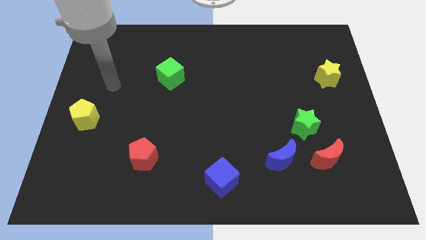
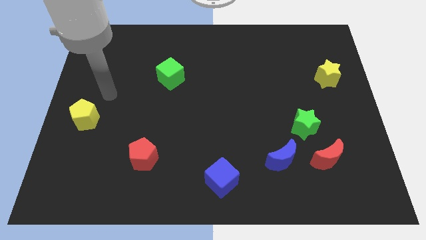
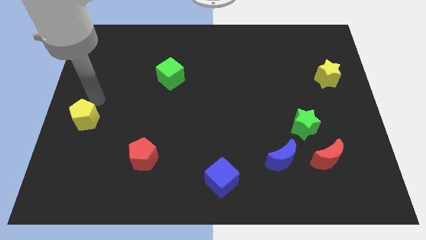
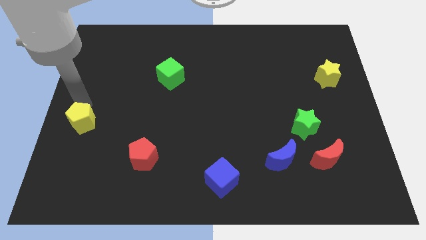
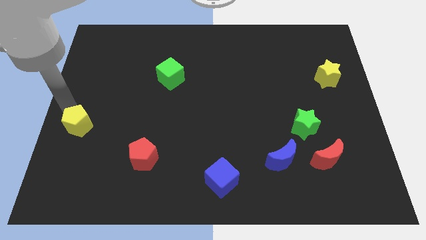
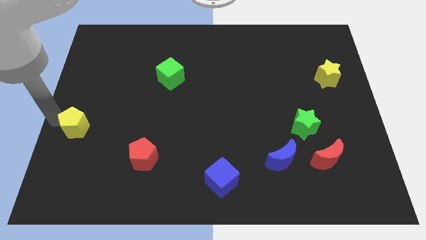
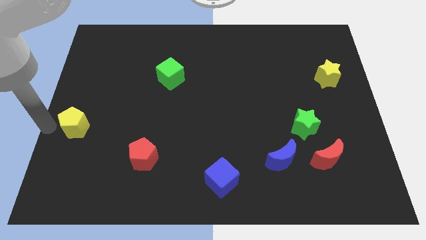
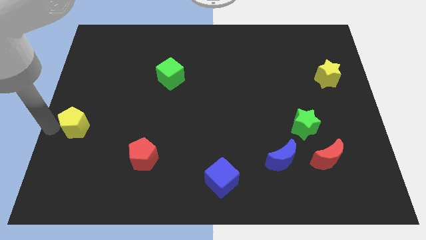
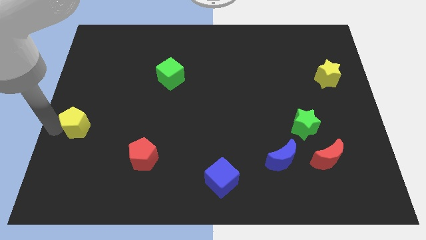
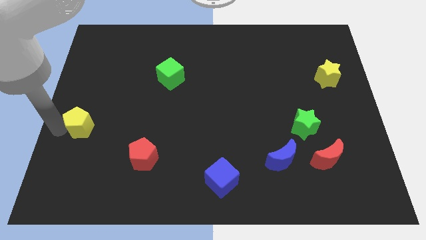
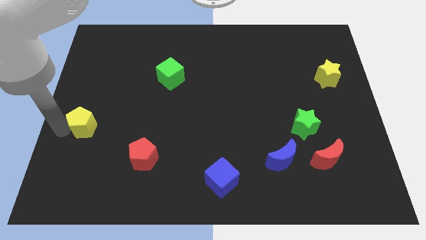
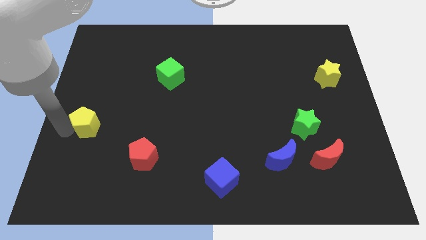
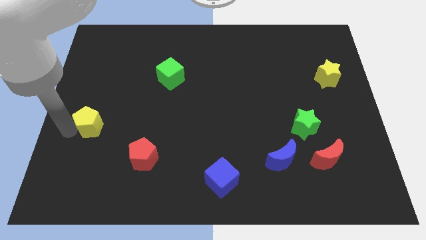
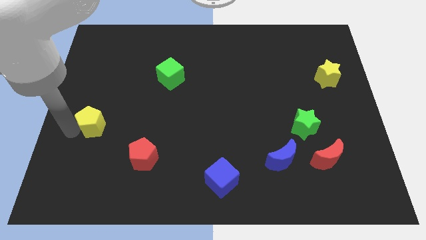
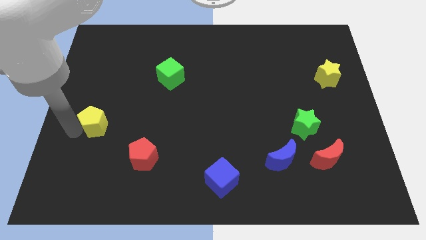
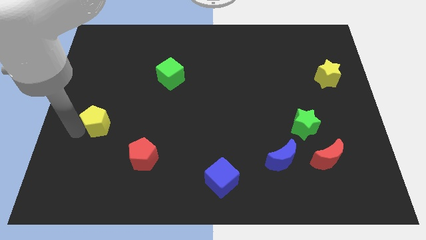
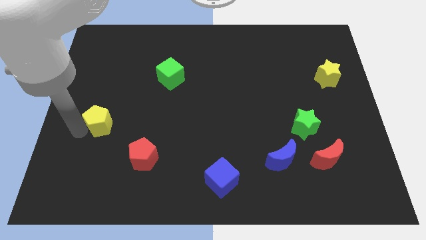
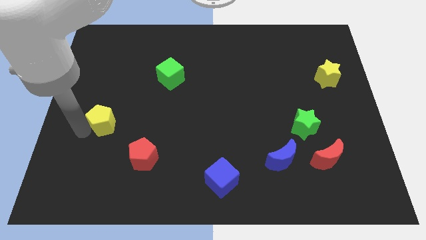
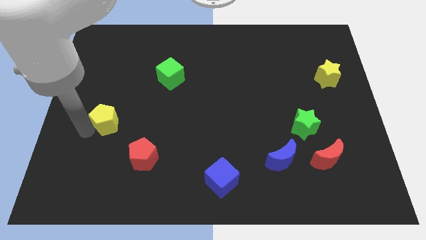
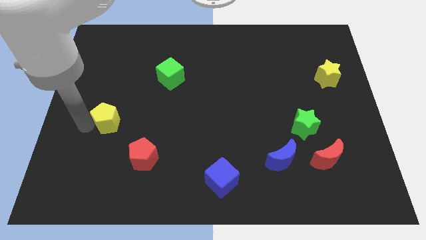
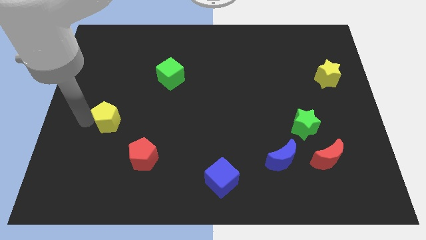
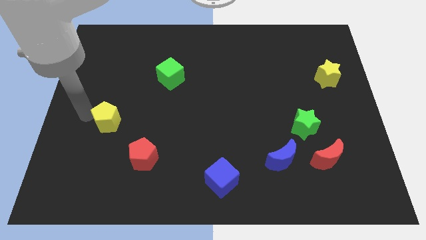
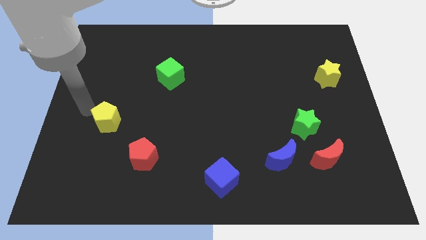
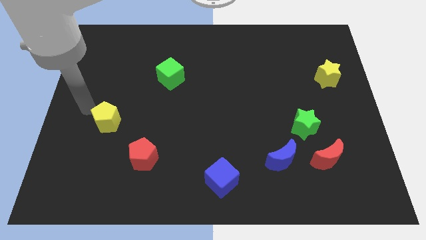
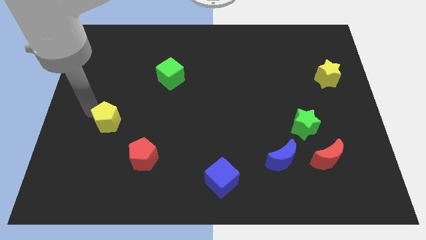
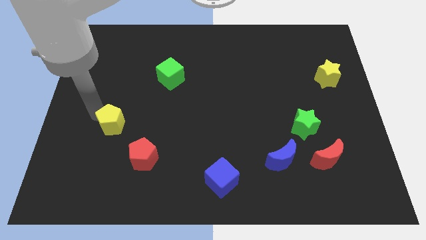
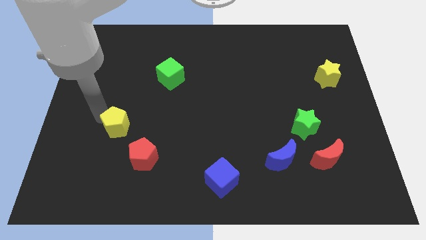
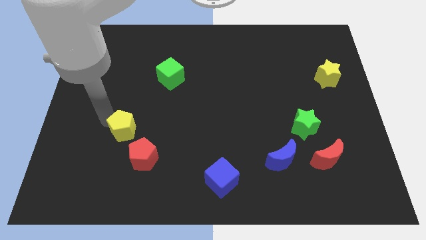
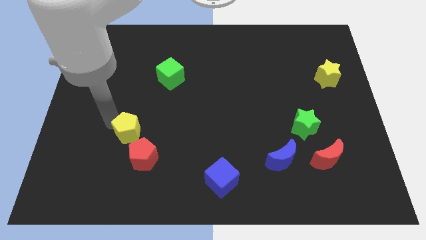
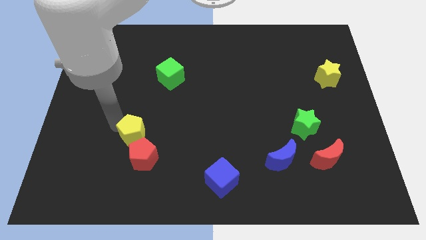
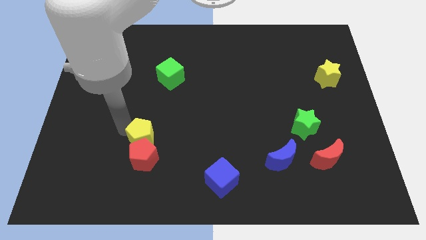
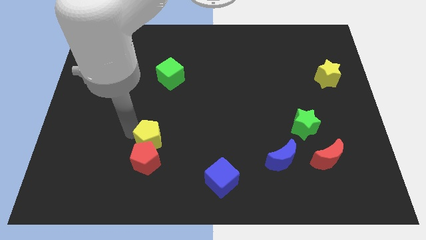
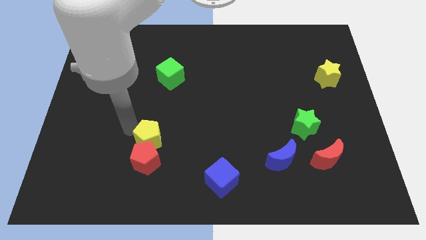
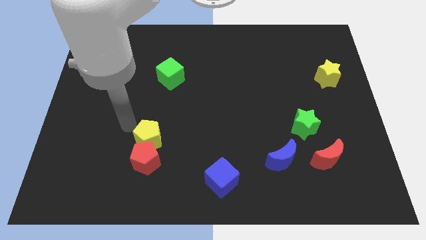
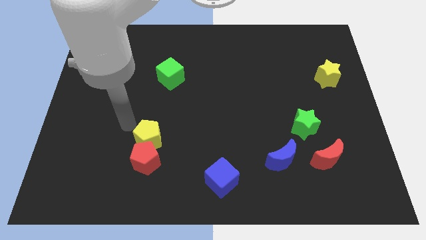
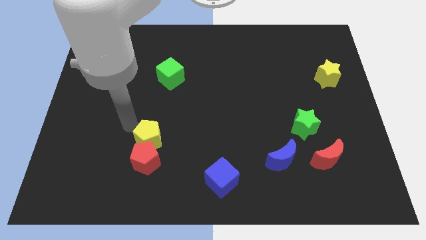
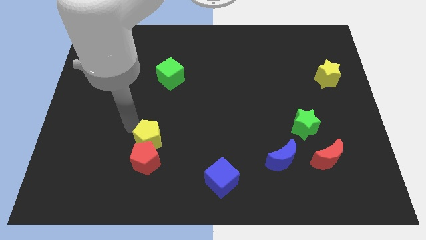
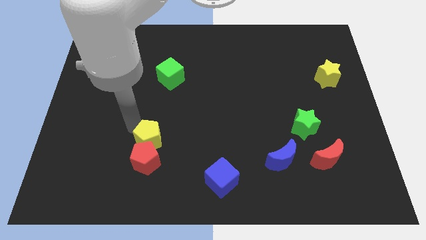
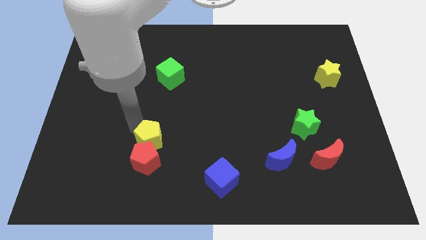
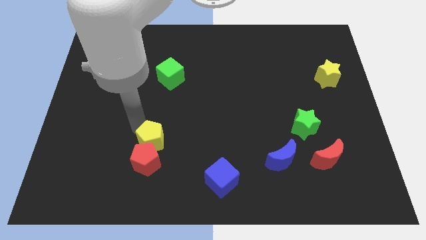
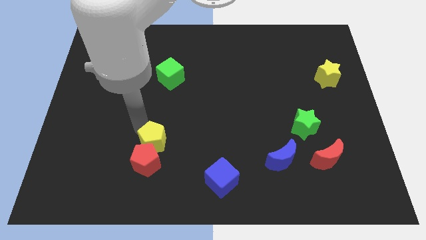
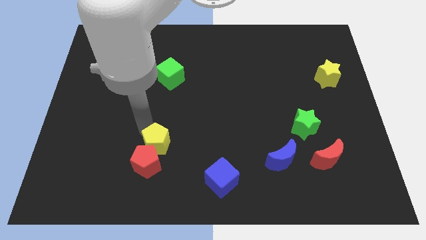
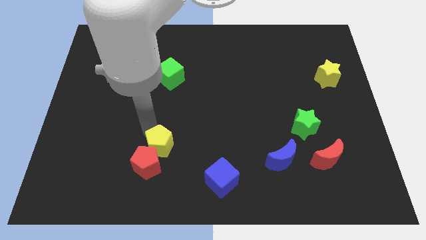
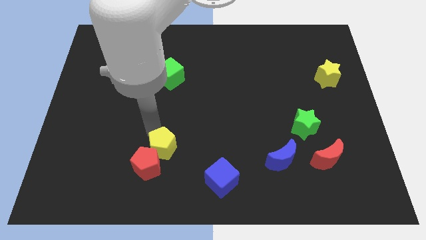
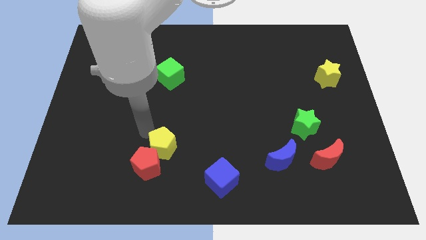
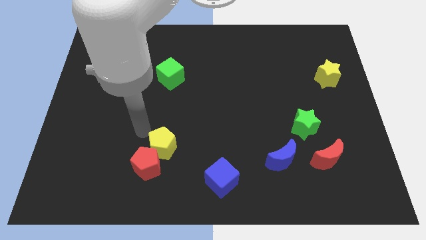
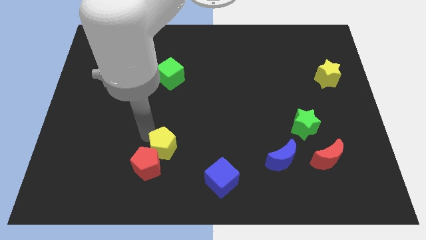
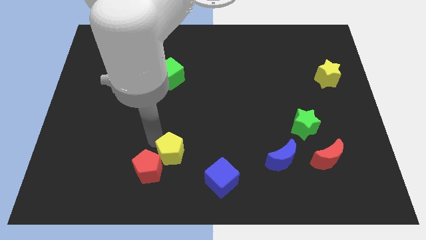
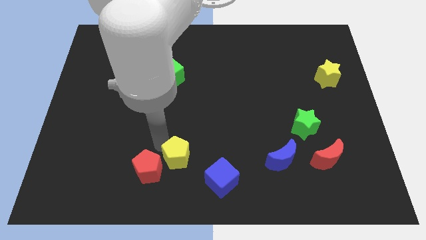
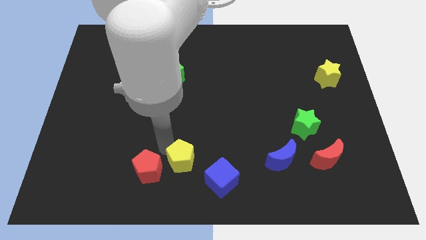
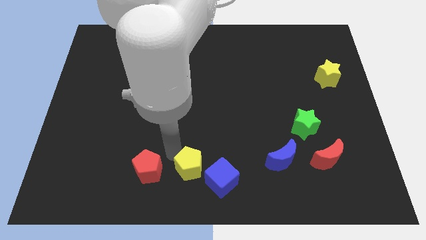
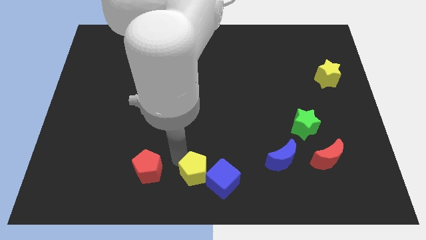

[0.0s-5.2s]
push the yellow pentagon to the blue cube

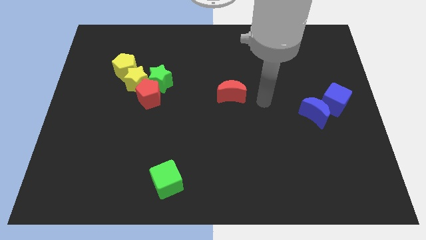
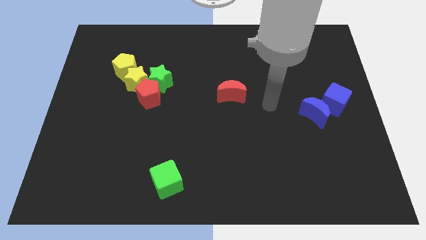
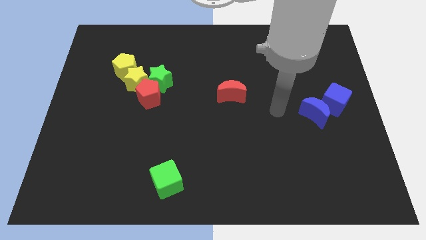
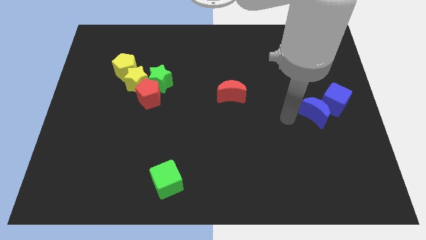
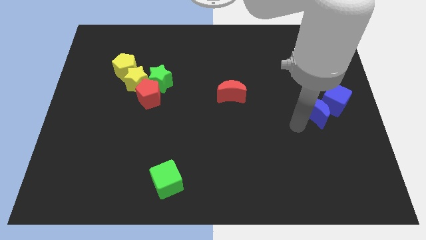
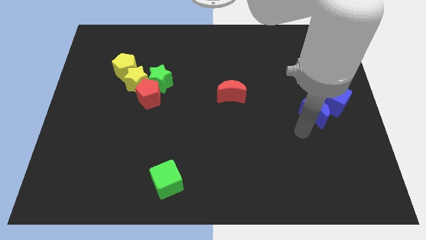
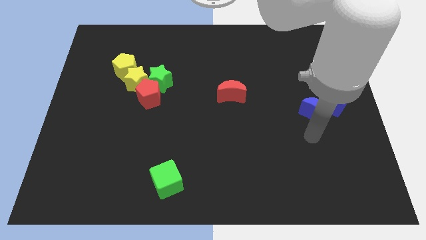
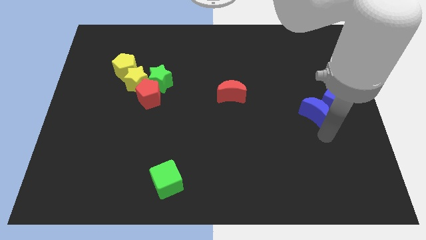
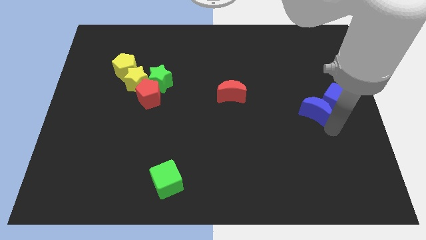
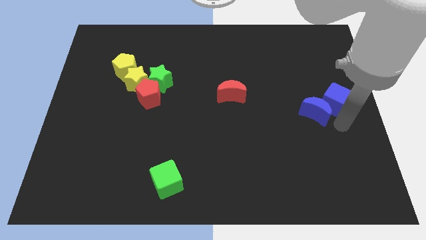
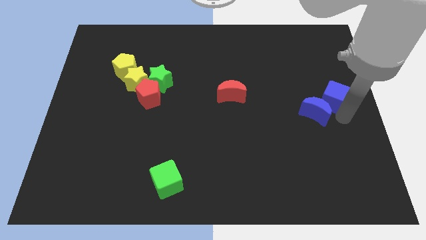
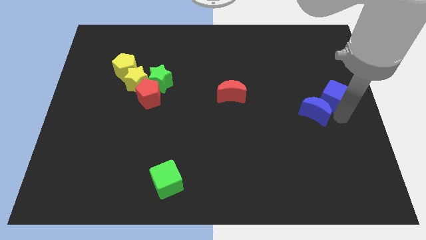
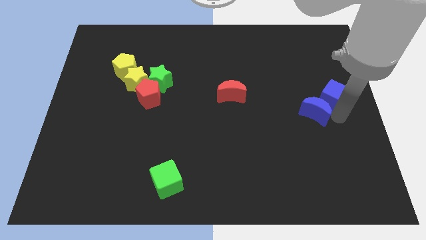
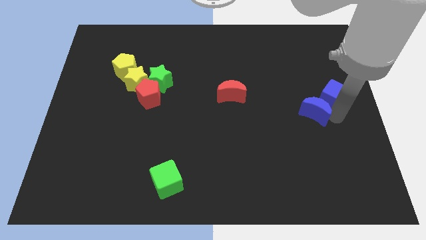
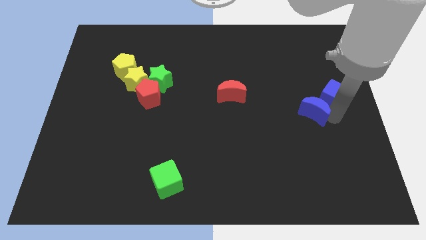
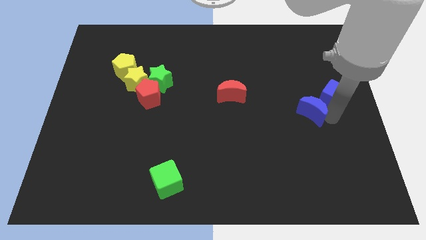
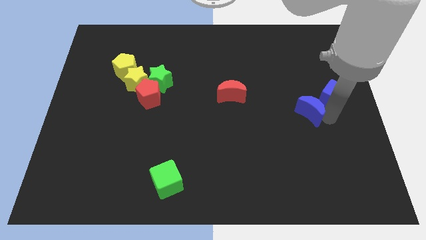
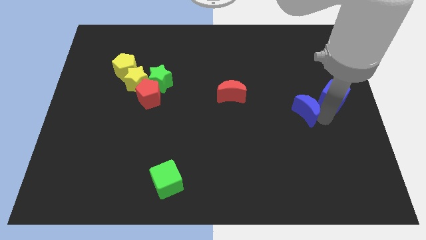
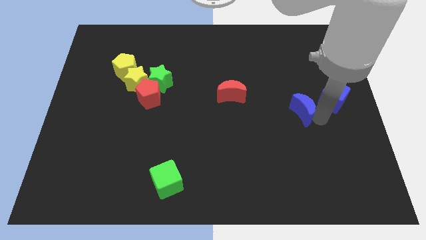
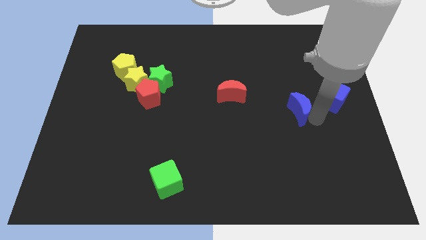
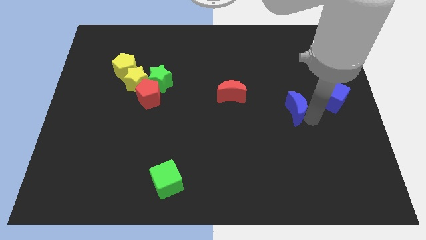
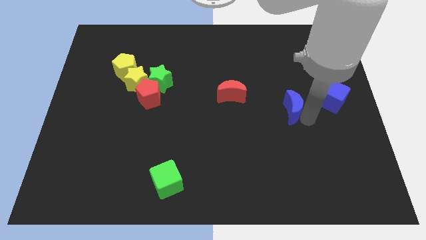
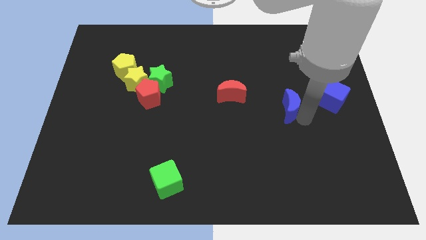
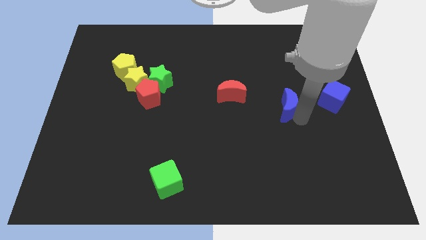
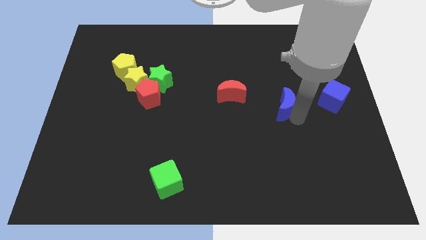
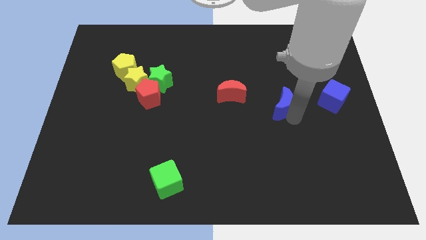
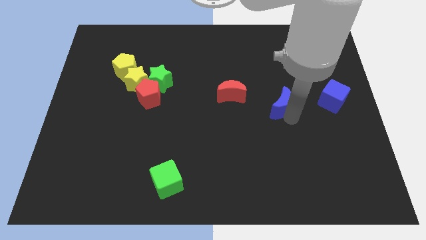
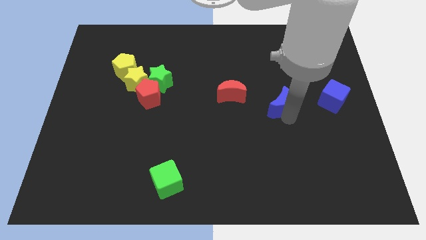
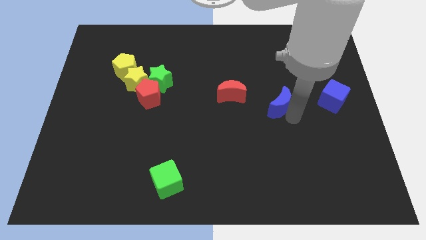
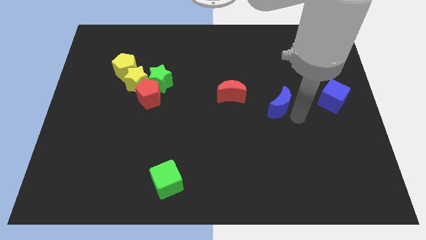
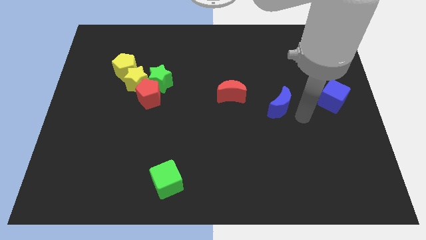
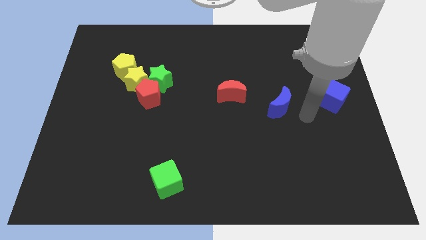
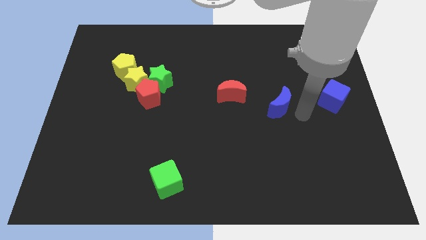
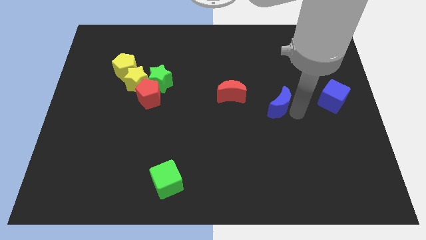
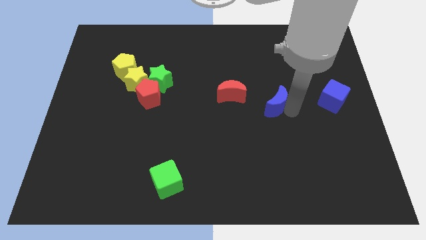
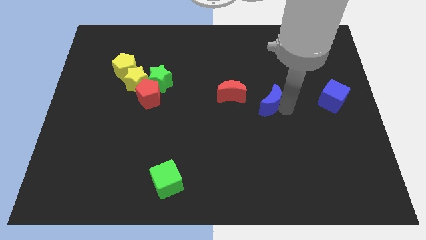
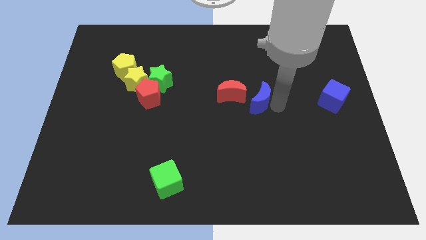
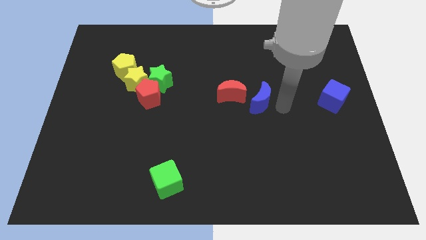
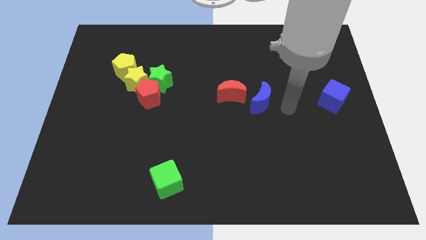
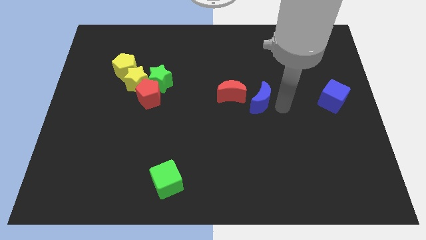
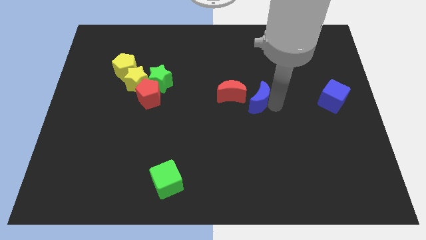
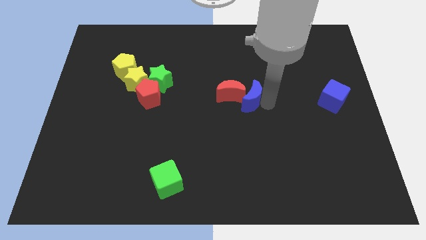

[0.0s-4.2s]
put the blue moon to the red moon
